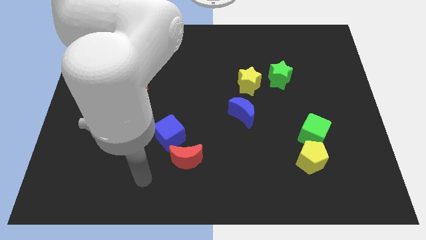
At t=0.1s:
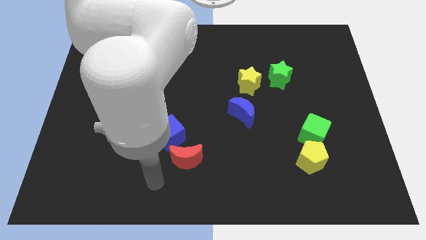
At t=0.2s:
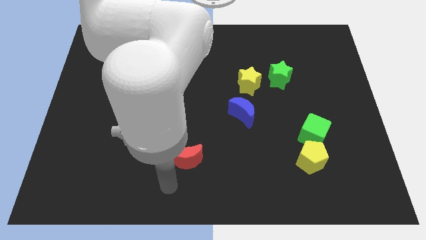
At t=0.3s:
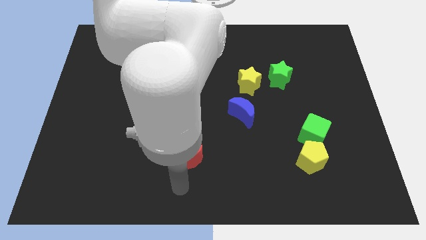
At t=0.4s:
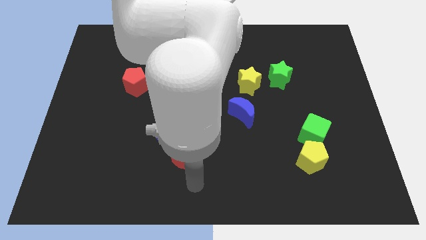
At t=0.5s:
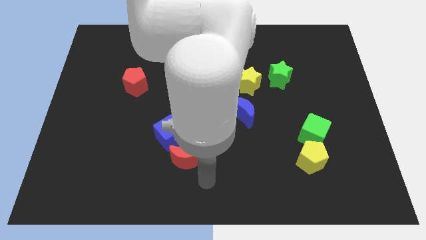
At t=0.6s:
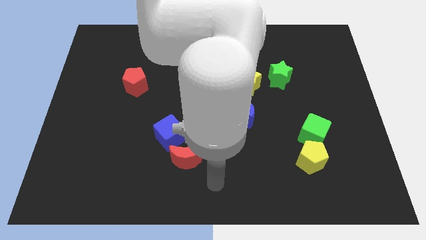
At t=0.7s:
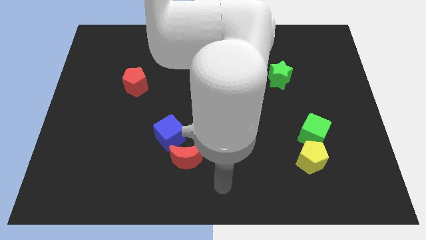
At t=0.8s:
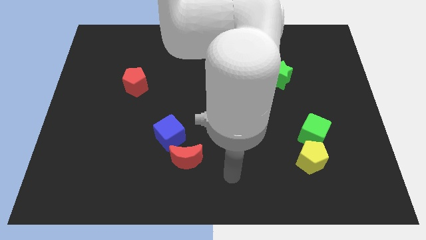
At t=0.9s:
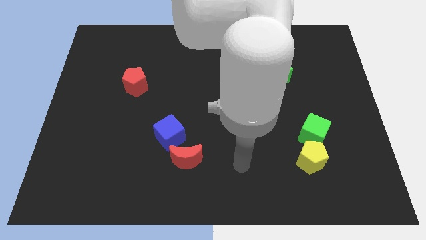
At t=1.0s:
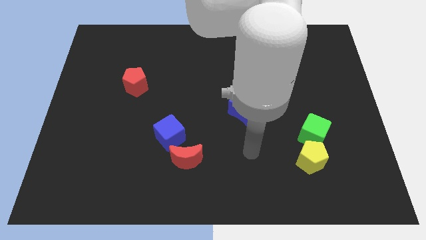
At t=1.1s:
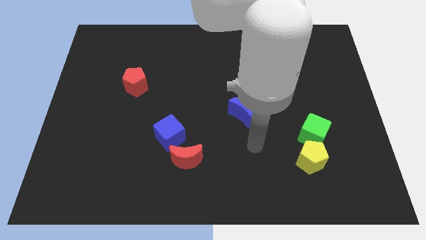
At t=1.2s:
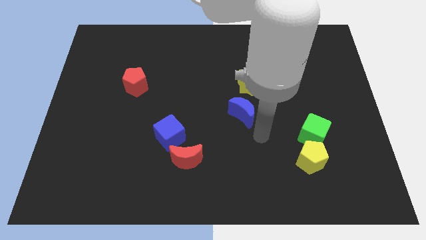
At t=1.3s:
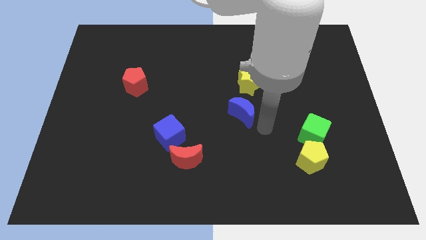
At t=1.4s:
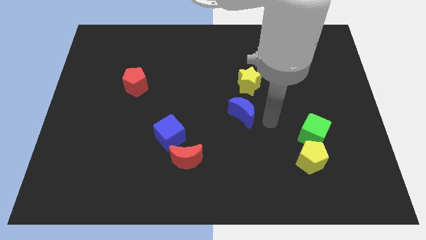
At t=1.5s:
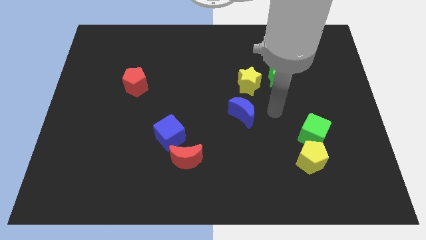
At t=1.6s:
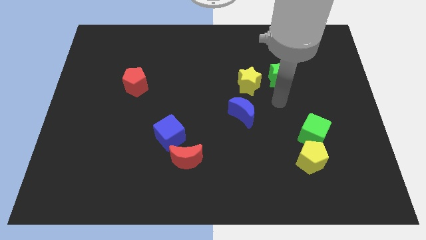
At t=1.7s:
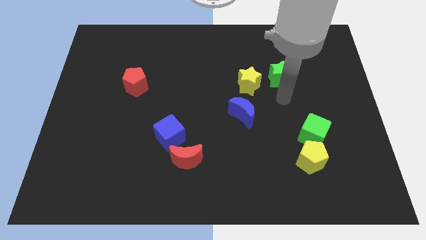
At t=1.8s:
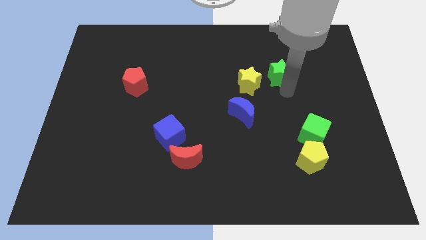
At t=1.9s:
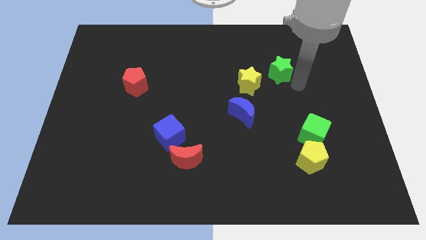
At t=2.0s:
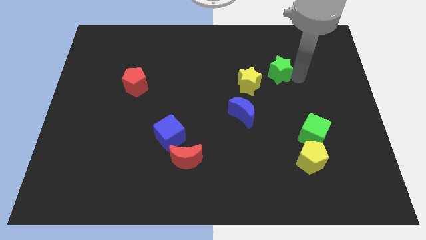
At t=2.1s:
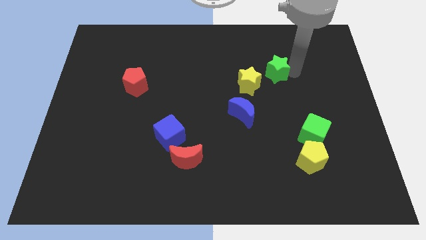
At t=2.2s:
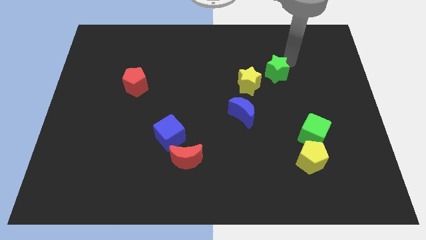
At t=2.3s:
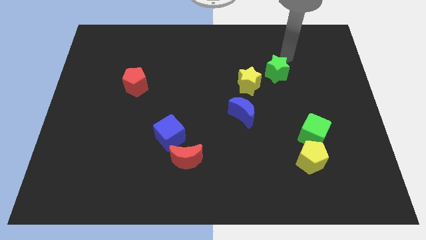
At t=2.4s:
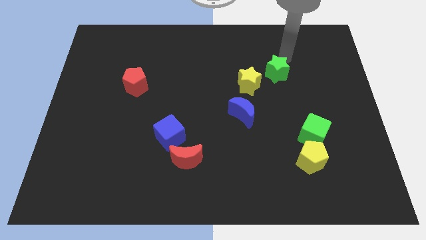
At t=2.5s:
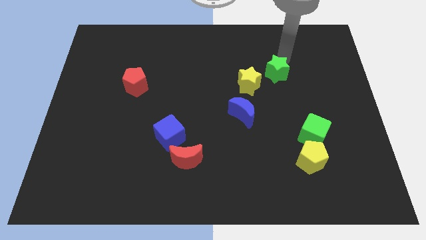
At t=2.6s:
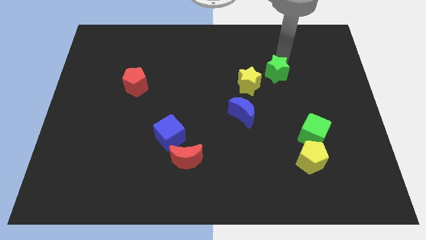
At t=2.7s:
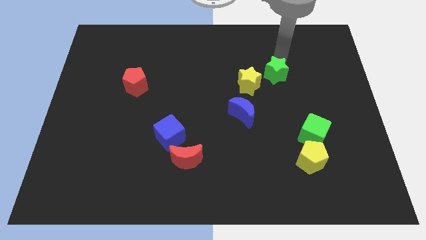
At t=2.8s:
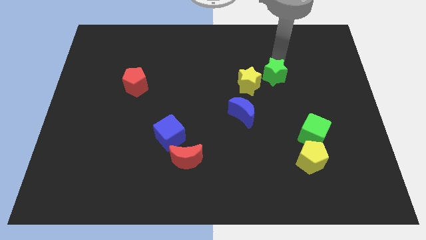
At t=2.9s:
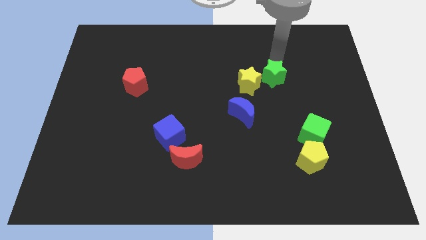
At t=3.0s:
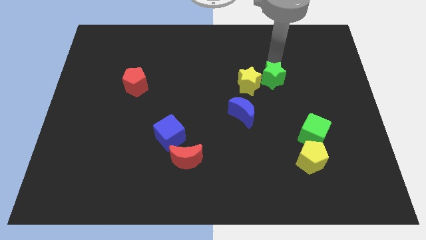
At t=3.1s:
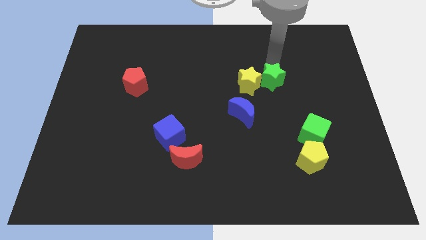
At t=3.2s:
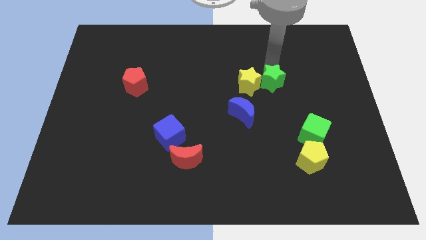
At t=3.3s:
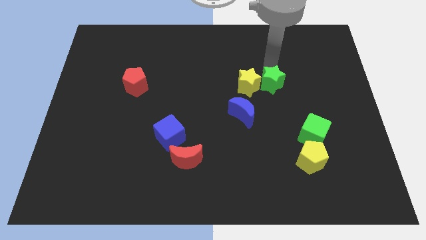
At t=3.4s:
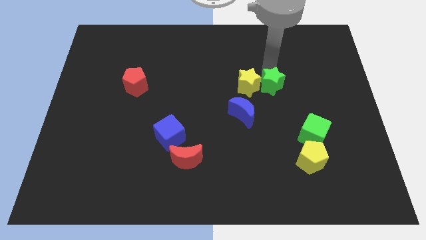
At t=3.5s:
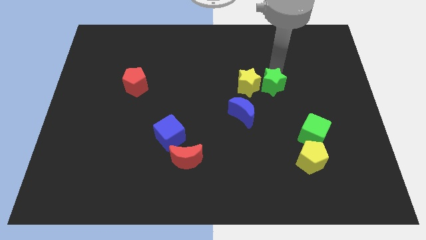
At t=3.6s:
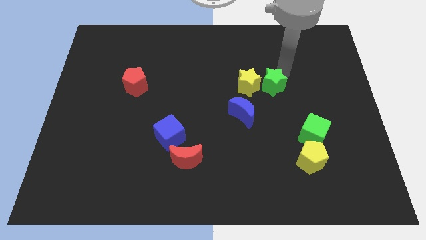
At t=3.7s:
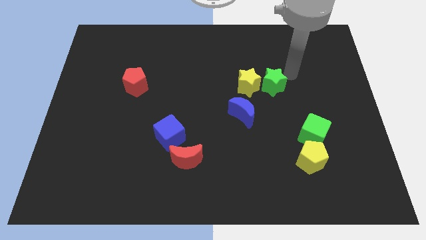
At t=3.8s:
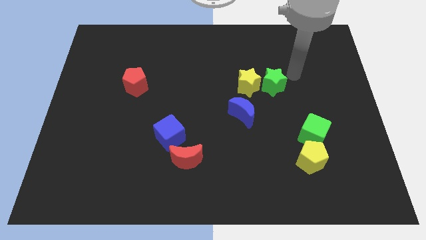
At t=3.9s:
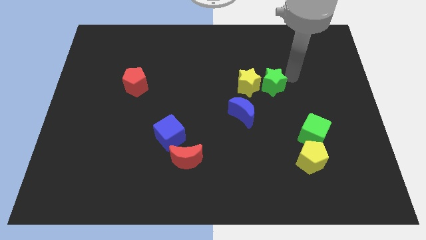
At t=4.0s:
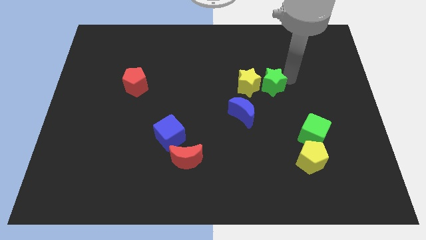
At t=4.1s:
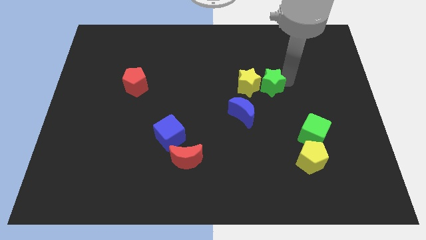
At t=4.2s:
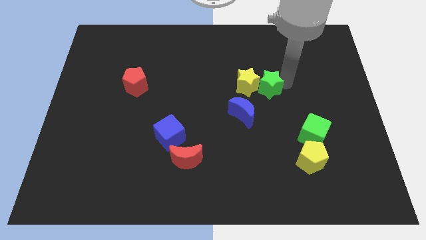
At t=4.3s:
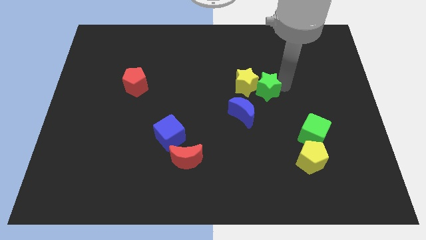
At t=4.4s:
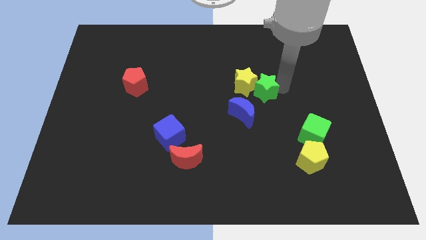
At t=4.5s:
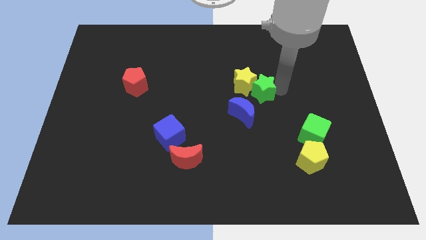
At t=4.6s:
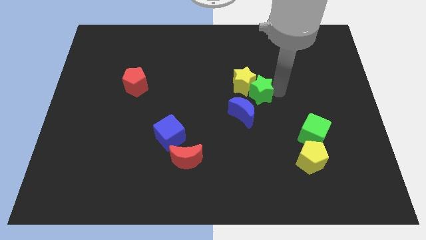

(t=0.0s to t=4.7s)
move the green star somewhat downwards and left diagonally

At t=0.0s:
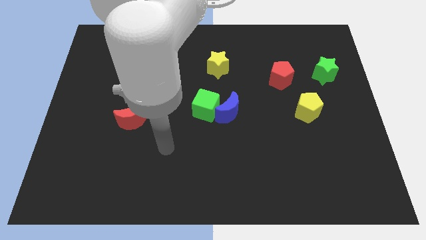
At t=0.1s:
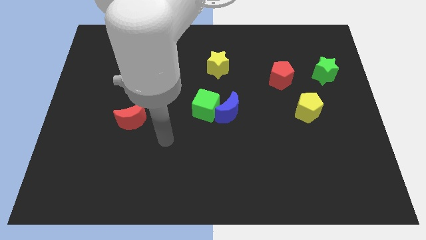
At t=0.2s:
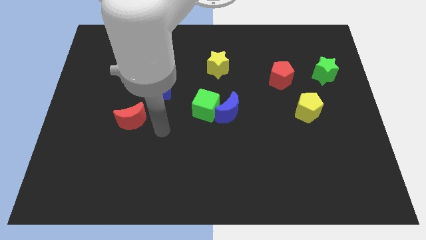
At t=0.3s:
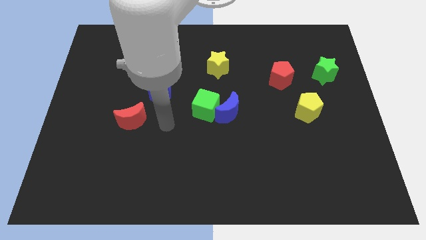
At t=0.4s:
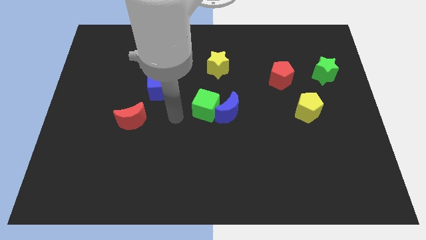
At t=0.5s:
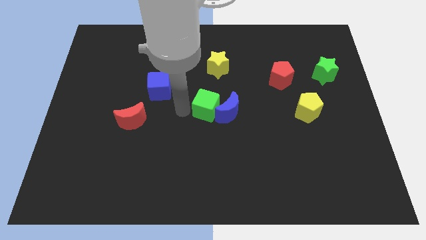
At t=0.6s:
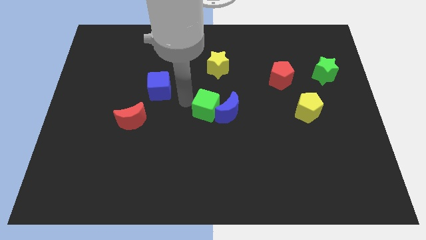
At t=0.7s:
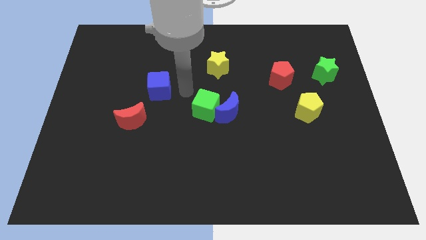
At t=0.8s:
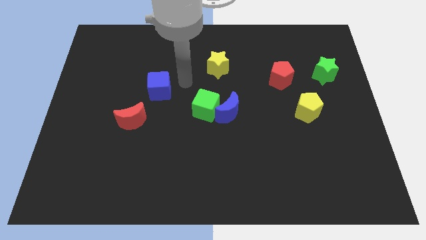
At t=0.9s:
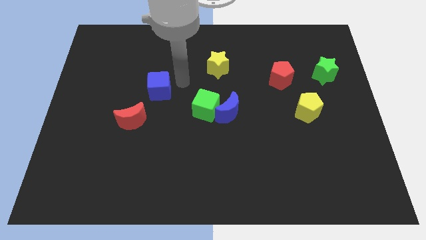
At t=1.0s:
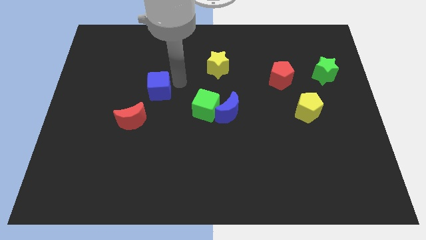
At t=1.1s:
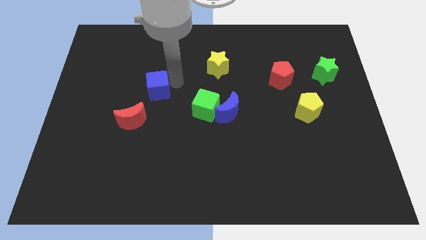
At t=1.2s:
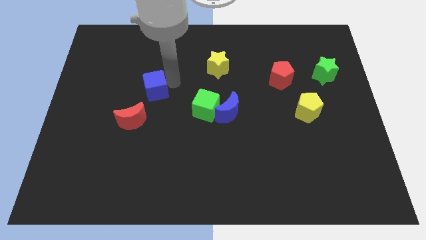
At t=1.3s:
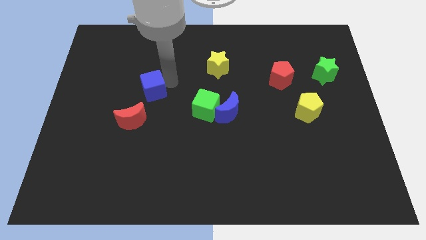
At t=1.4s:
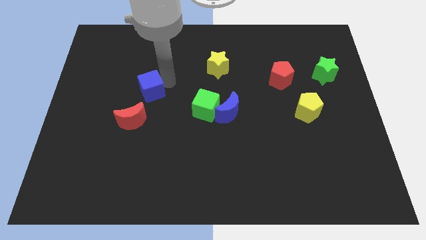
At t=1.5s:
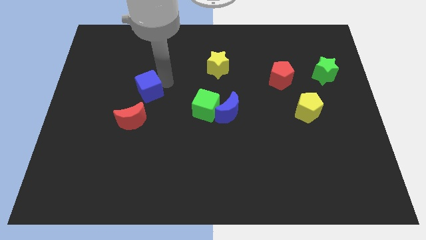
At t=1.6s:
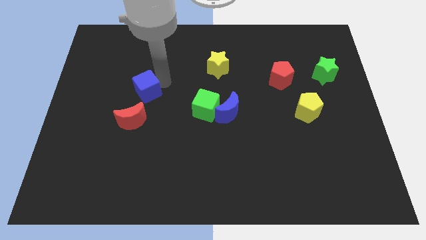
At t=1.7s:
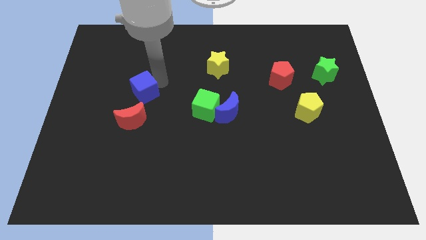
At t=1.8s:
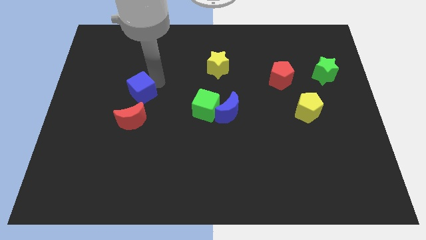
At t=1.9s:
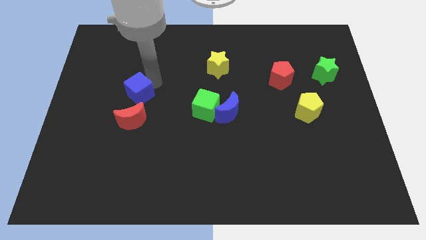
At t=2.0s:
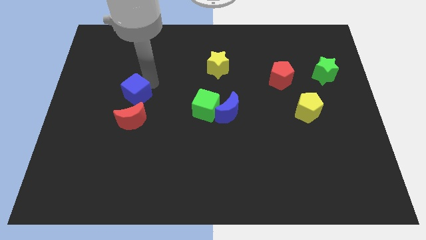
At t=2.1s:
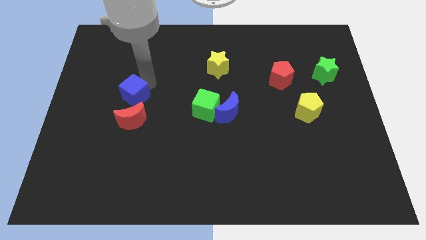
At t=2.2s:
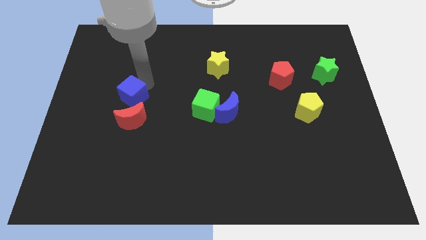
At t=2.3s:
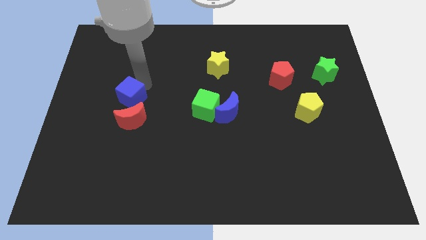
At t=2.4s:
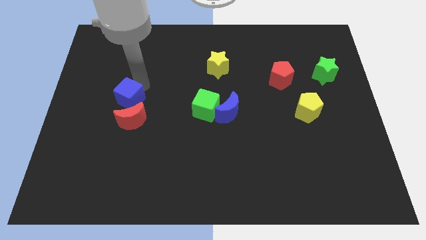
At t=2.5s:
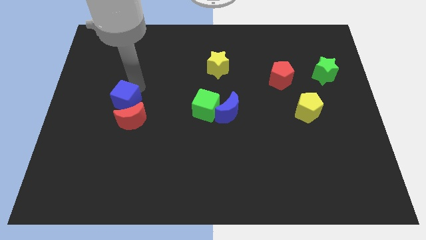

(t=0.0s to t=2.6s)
slightly move the blue cube diagonally down and to the left

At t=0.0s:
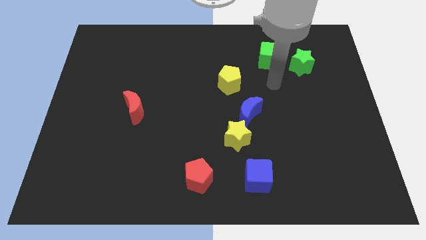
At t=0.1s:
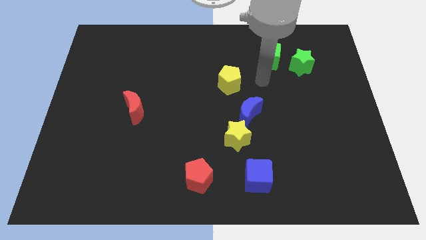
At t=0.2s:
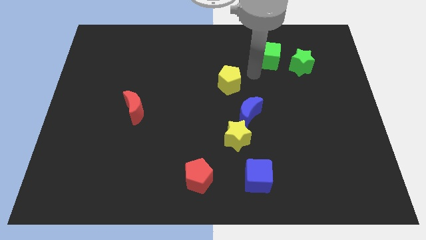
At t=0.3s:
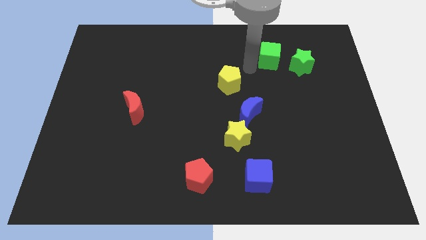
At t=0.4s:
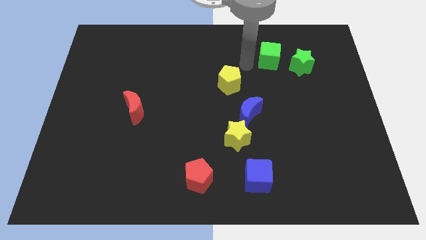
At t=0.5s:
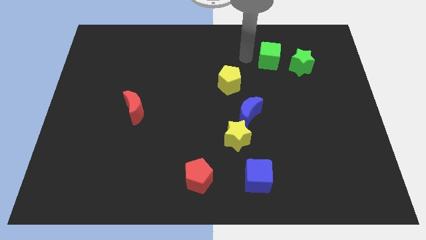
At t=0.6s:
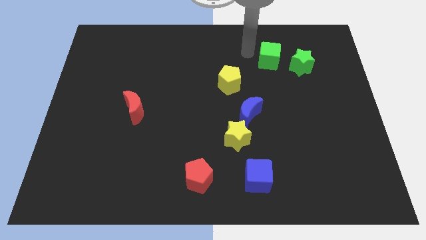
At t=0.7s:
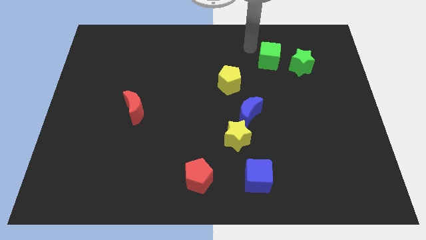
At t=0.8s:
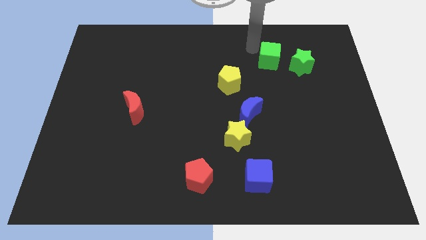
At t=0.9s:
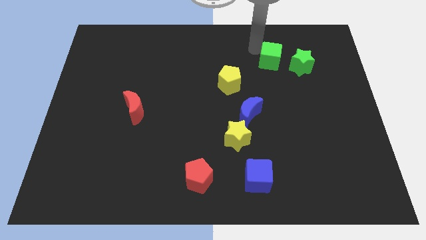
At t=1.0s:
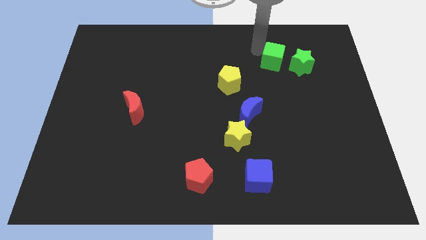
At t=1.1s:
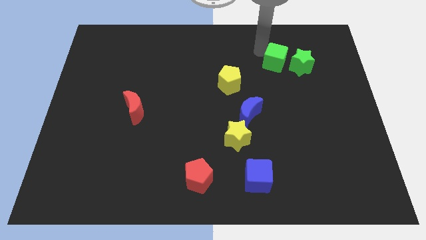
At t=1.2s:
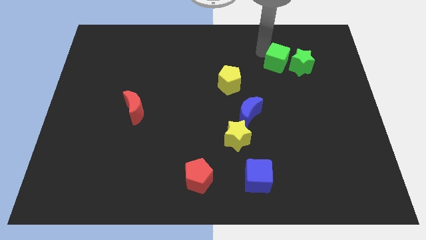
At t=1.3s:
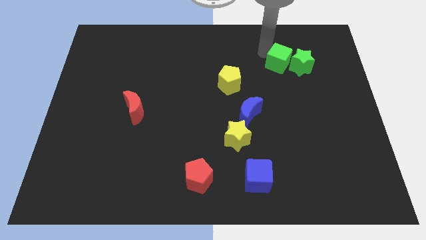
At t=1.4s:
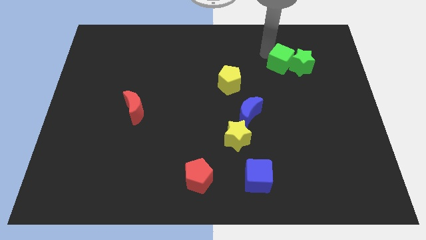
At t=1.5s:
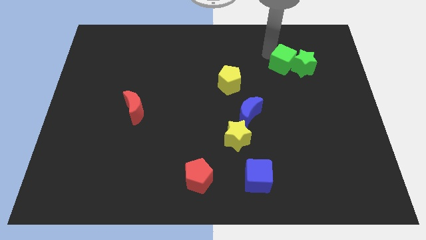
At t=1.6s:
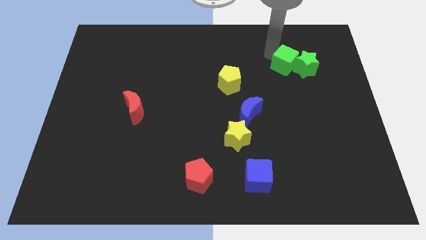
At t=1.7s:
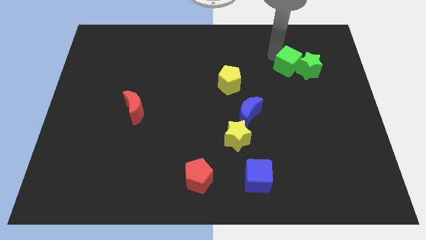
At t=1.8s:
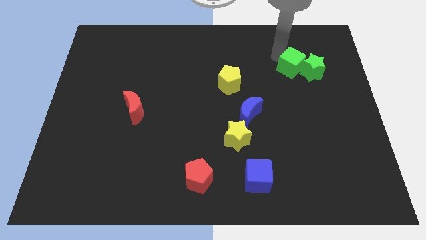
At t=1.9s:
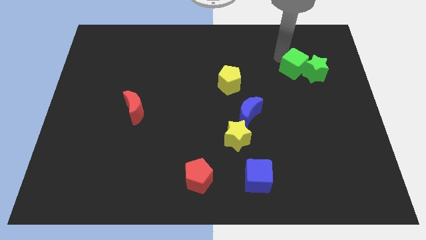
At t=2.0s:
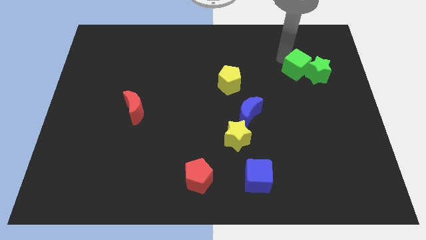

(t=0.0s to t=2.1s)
push the green cube slightly diagonally down and right
